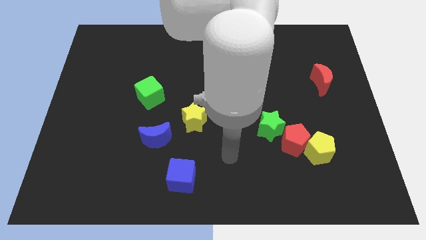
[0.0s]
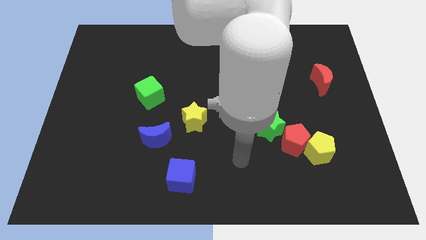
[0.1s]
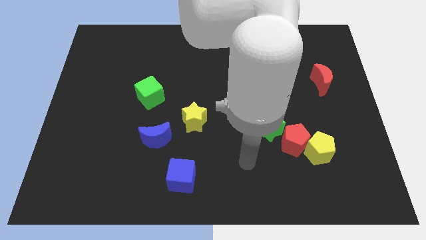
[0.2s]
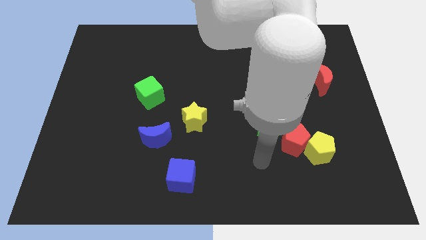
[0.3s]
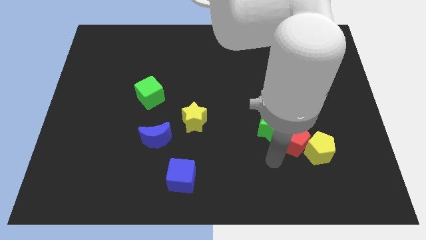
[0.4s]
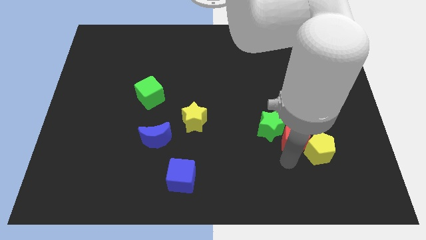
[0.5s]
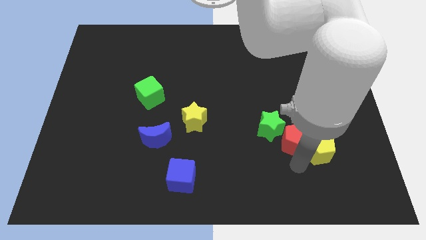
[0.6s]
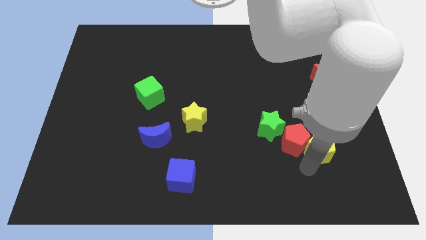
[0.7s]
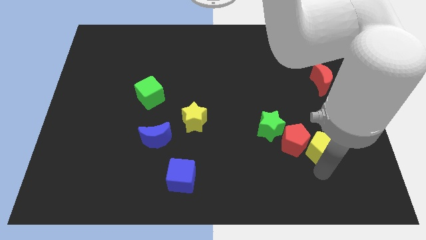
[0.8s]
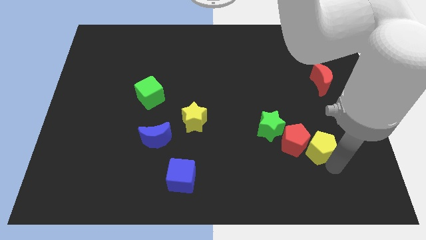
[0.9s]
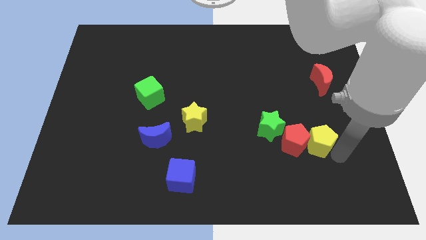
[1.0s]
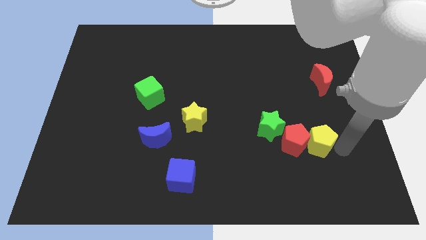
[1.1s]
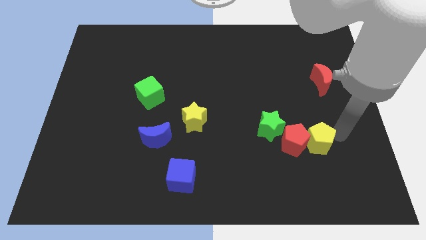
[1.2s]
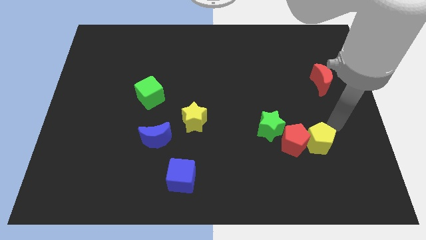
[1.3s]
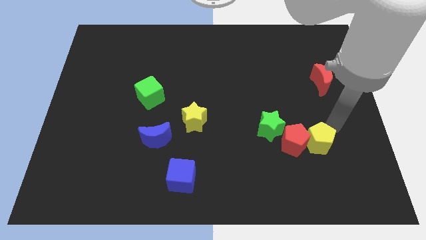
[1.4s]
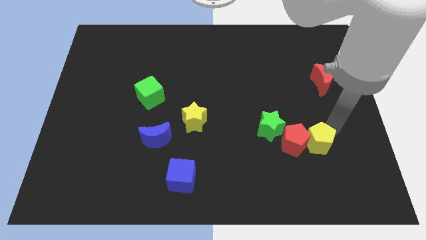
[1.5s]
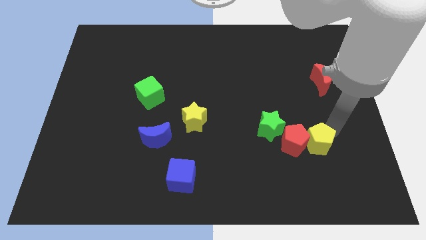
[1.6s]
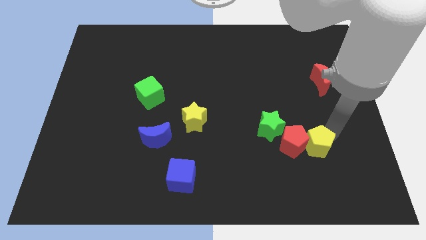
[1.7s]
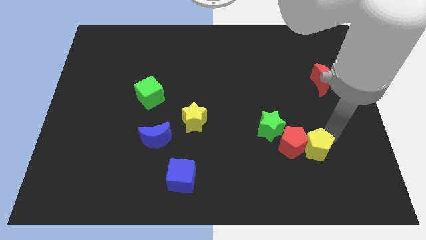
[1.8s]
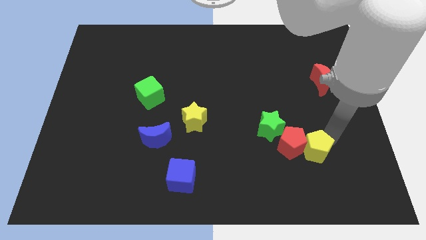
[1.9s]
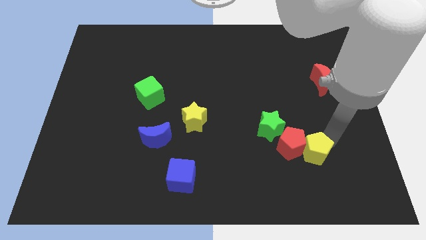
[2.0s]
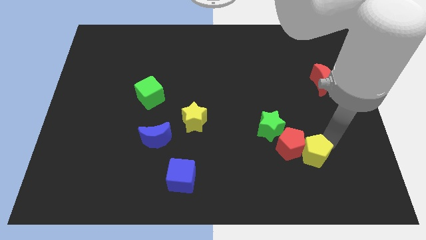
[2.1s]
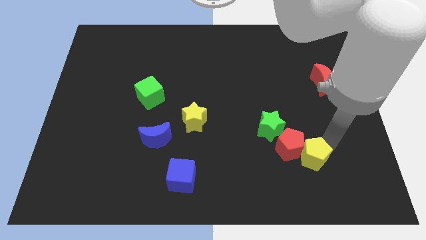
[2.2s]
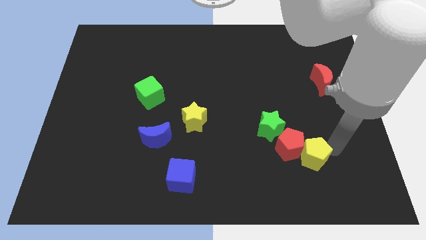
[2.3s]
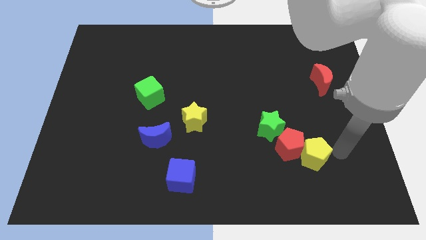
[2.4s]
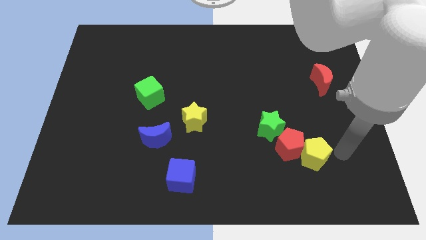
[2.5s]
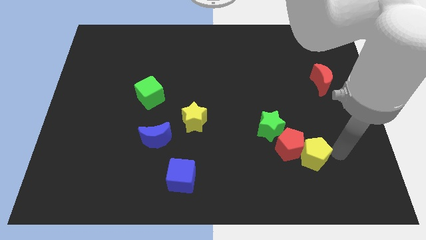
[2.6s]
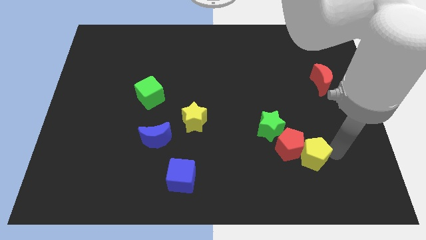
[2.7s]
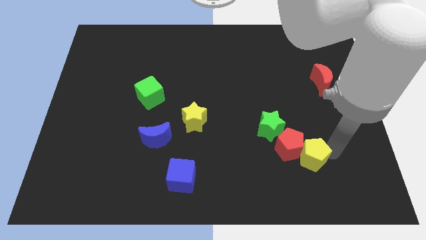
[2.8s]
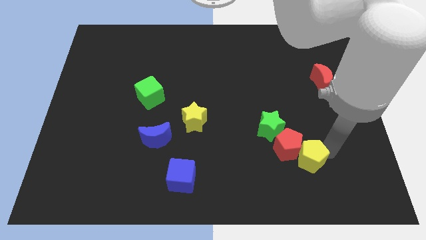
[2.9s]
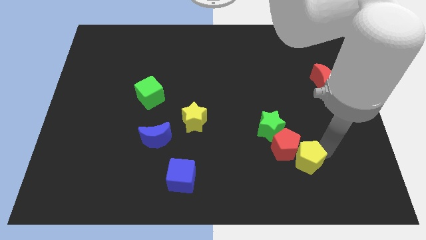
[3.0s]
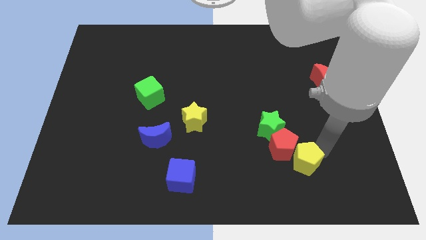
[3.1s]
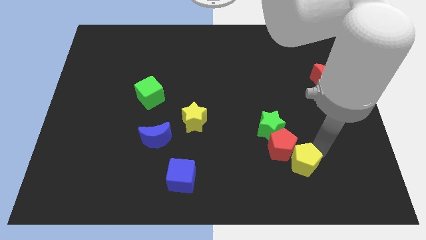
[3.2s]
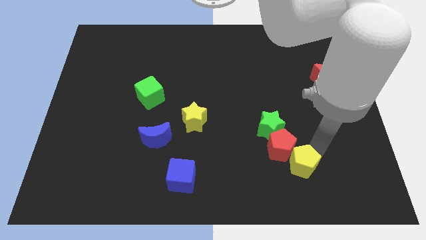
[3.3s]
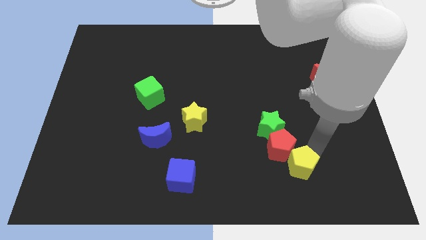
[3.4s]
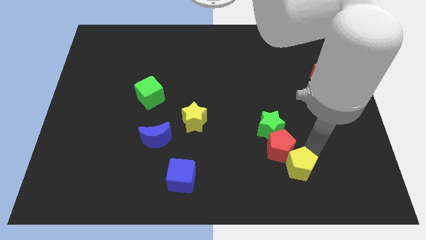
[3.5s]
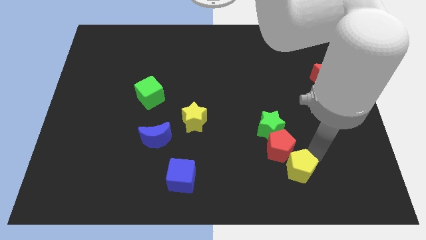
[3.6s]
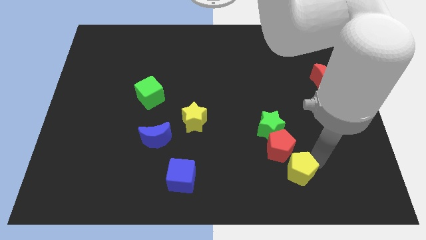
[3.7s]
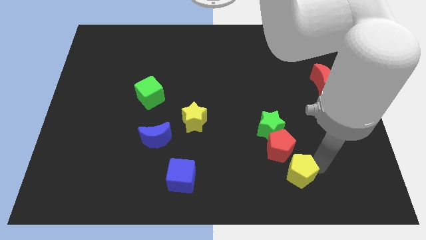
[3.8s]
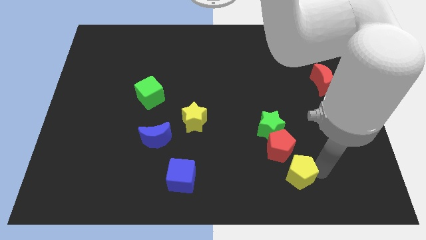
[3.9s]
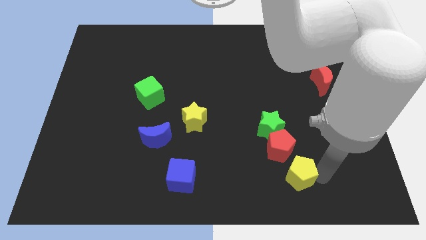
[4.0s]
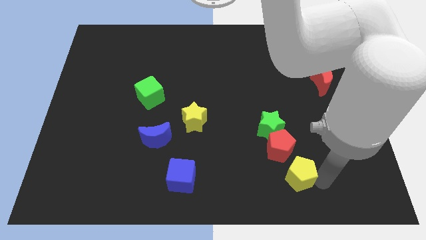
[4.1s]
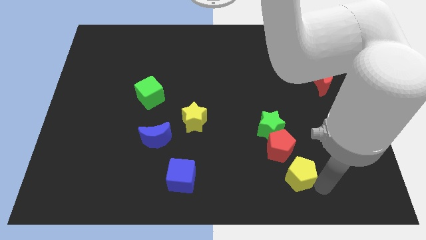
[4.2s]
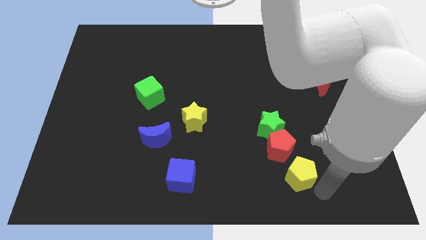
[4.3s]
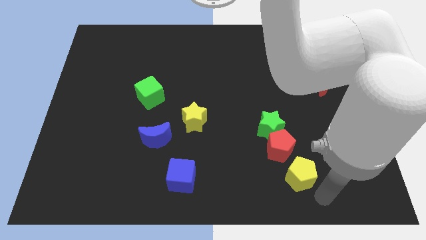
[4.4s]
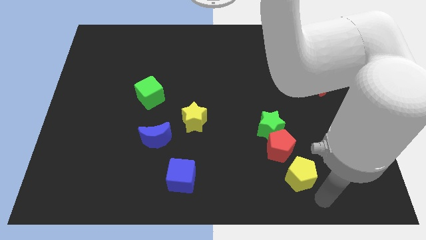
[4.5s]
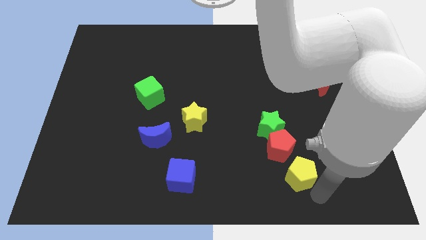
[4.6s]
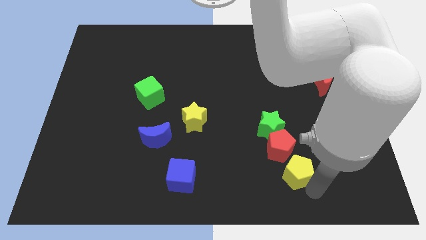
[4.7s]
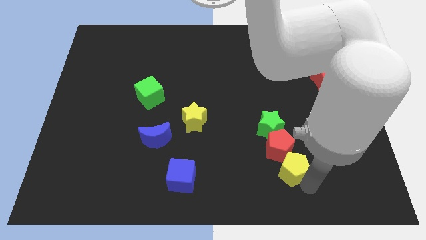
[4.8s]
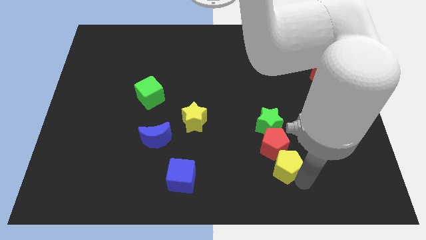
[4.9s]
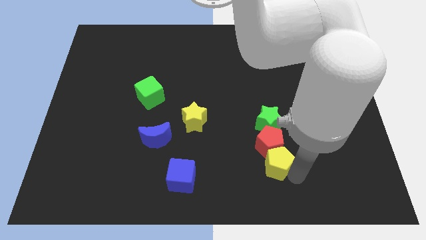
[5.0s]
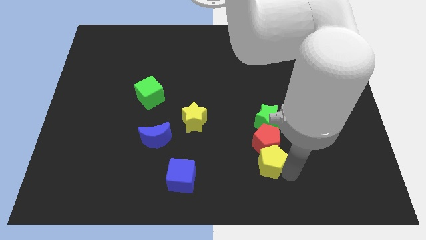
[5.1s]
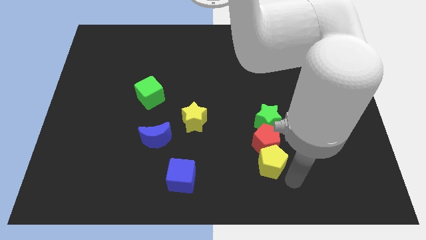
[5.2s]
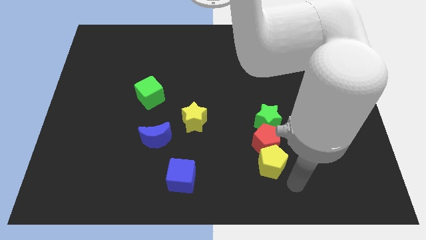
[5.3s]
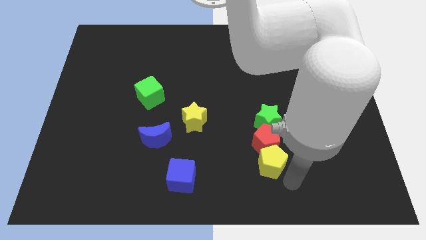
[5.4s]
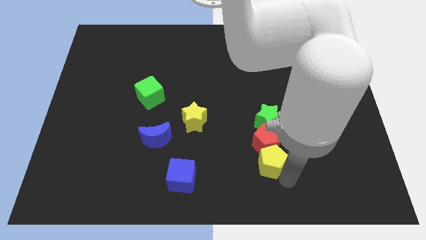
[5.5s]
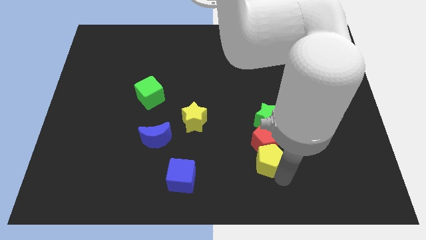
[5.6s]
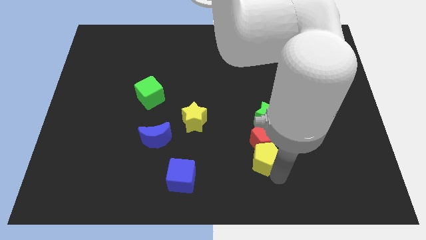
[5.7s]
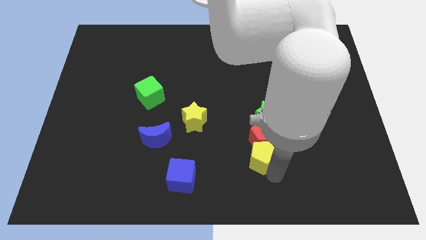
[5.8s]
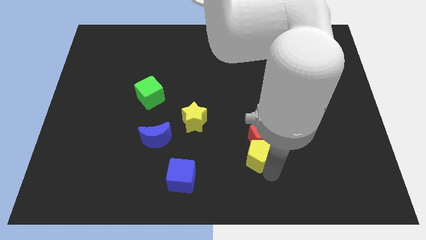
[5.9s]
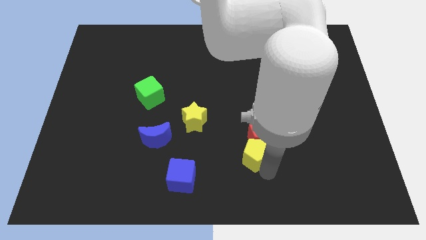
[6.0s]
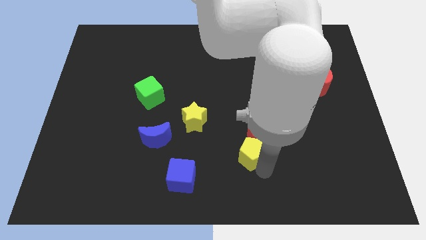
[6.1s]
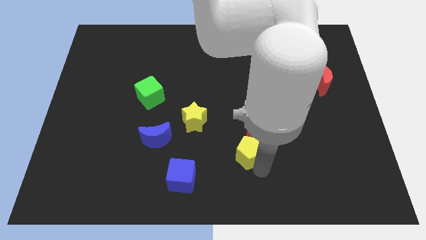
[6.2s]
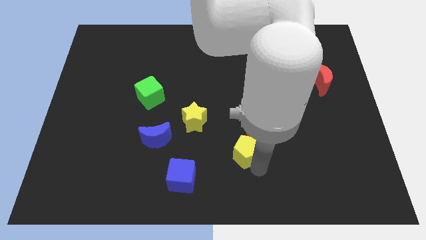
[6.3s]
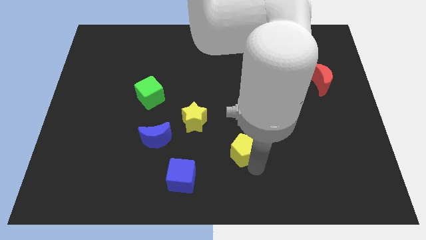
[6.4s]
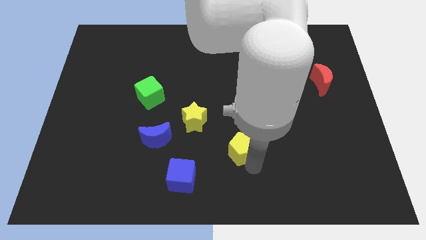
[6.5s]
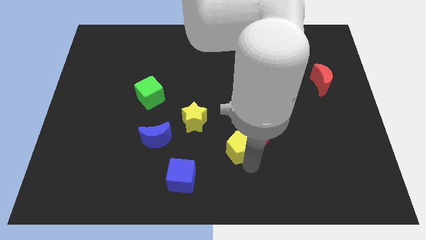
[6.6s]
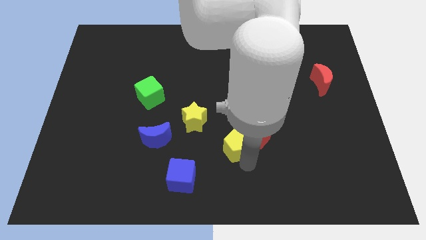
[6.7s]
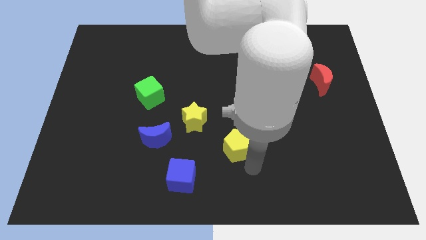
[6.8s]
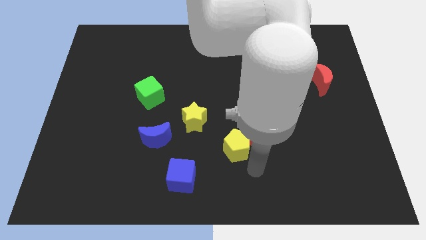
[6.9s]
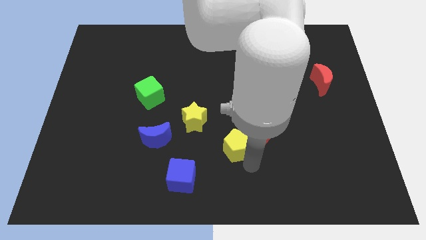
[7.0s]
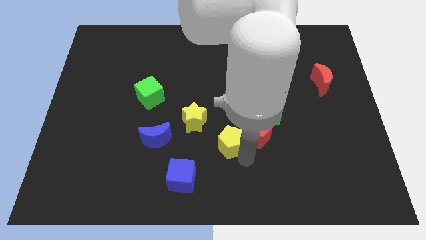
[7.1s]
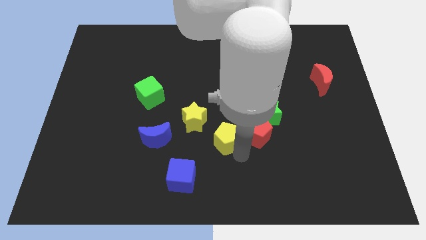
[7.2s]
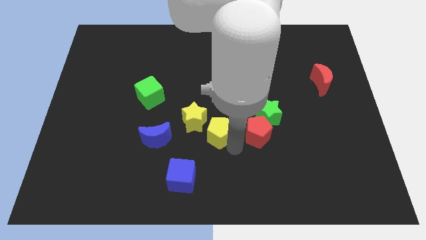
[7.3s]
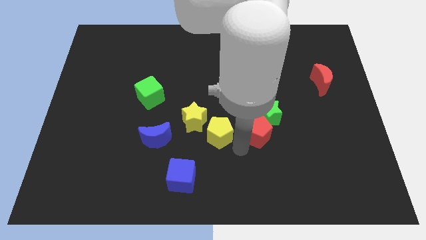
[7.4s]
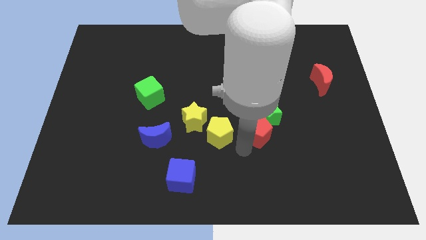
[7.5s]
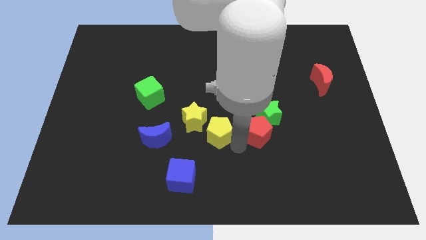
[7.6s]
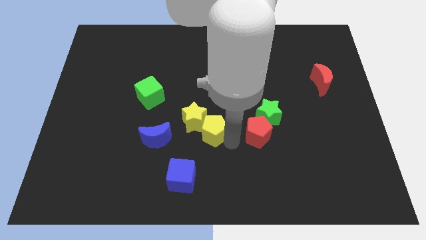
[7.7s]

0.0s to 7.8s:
move the yellow pentagon towards the yellow star
